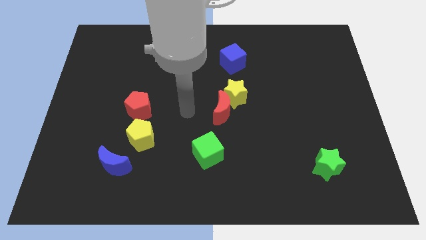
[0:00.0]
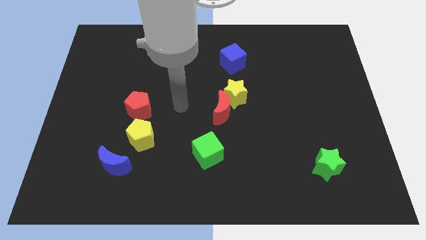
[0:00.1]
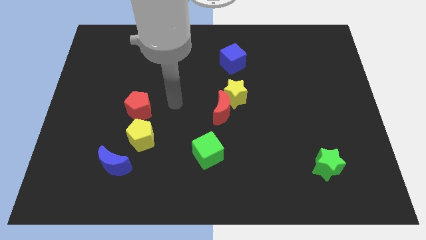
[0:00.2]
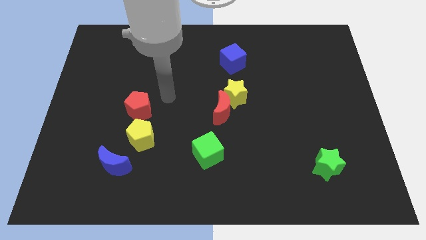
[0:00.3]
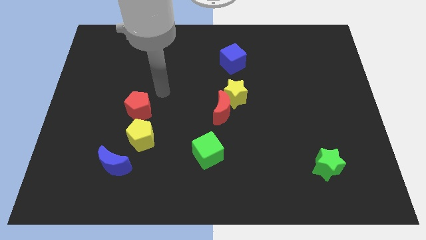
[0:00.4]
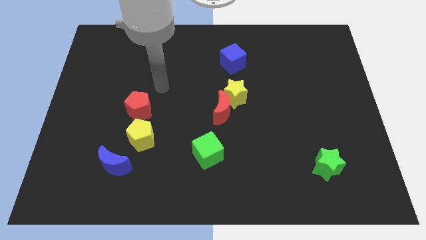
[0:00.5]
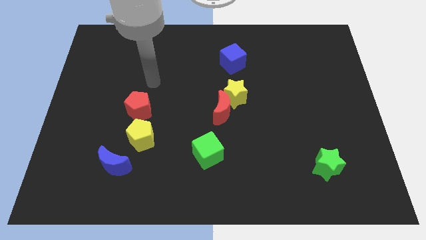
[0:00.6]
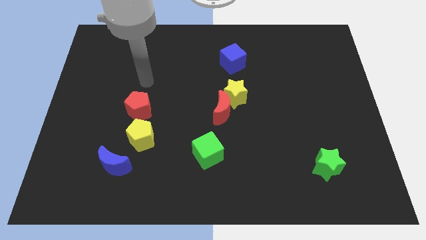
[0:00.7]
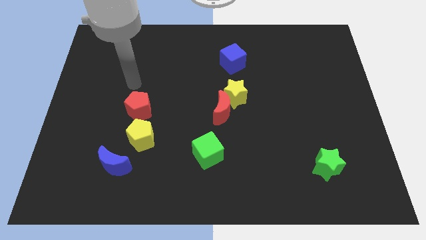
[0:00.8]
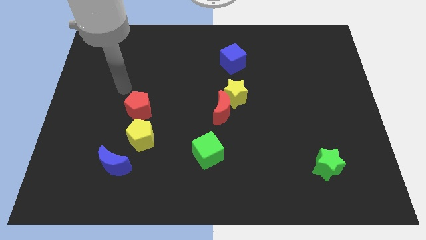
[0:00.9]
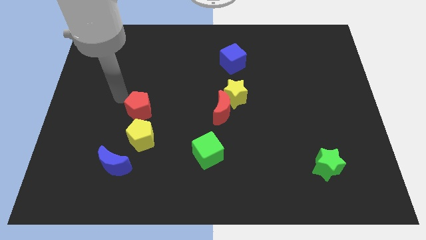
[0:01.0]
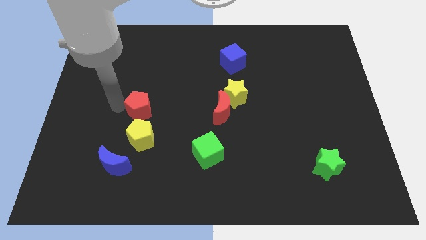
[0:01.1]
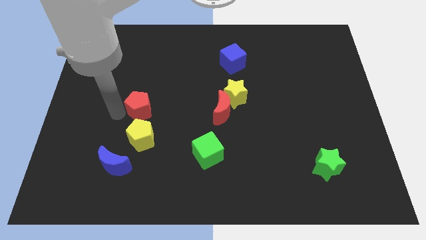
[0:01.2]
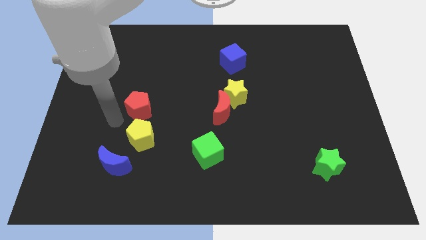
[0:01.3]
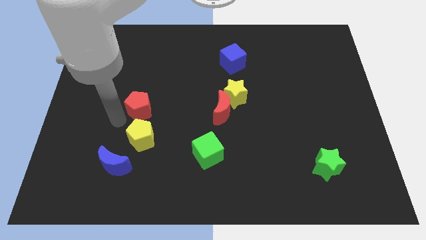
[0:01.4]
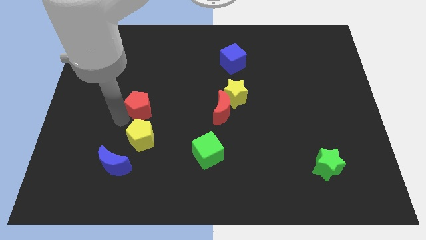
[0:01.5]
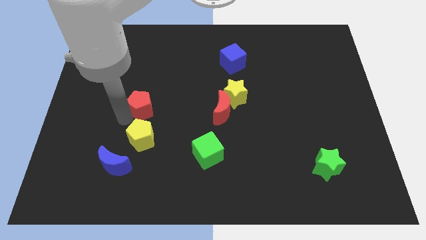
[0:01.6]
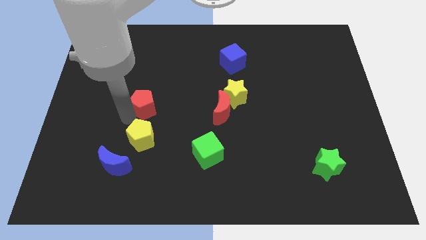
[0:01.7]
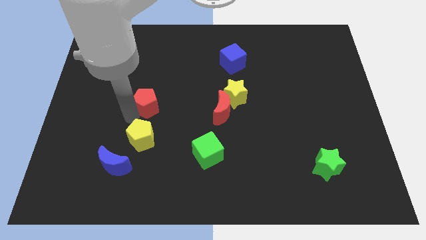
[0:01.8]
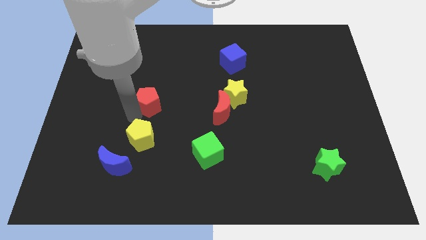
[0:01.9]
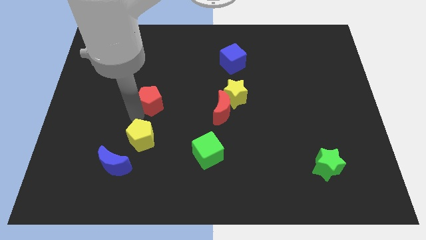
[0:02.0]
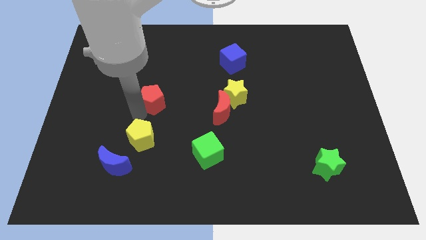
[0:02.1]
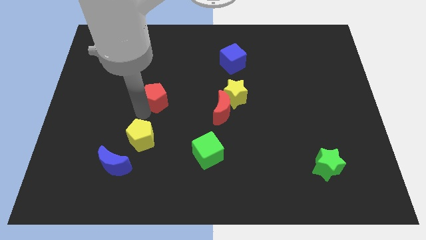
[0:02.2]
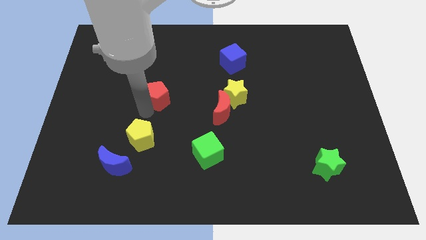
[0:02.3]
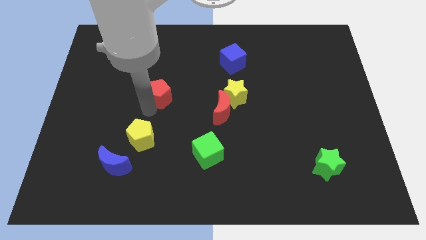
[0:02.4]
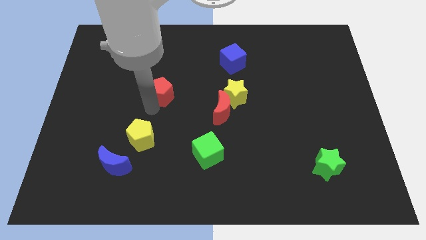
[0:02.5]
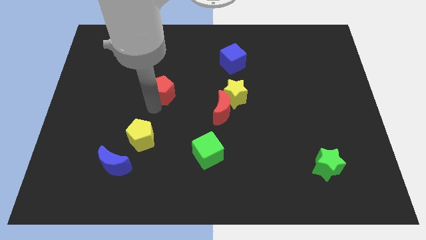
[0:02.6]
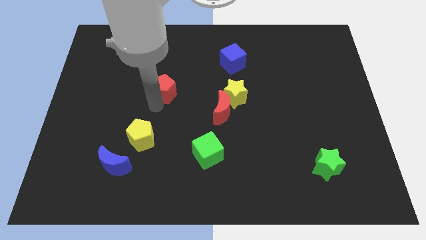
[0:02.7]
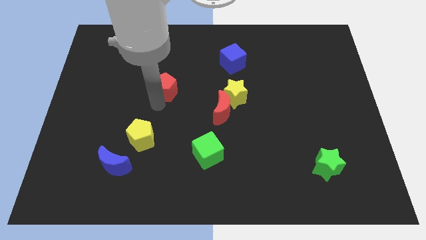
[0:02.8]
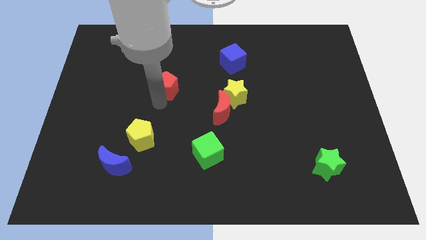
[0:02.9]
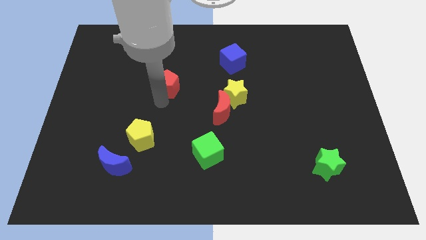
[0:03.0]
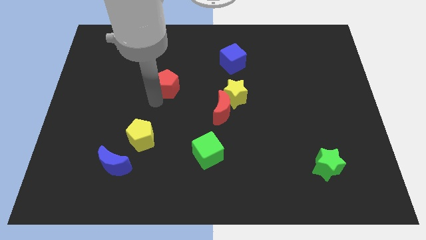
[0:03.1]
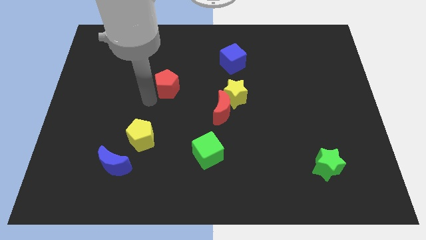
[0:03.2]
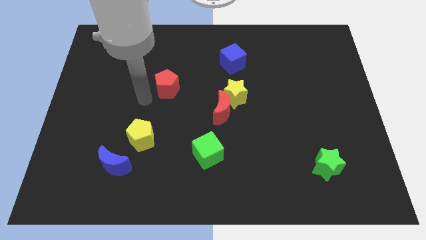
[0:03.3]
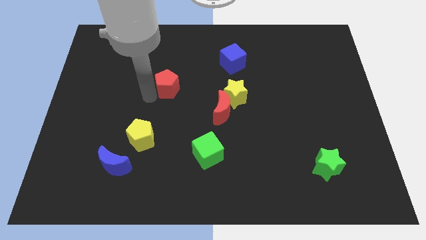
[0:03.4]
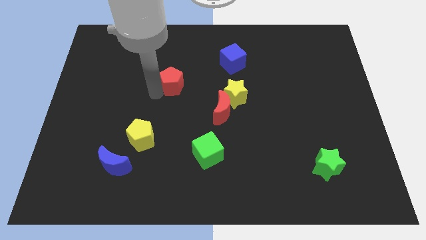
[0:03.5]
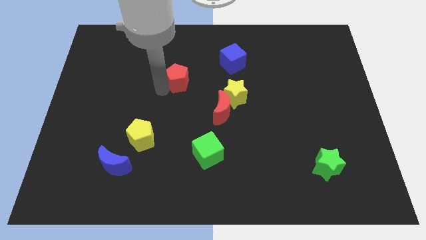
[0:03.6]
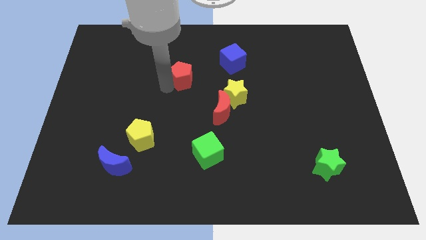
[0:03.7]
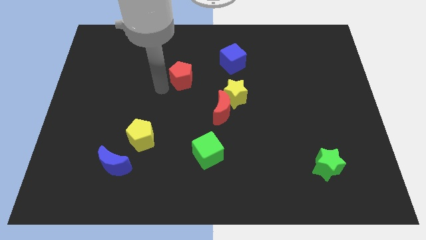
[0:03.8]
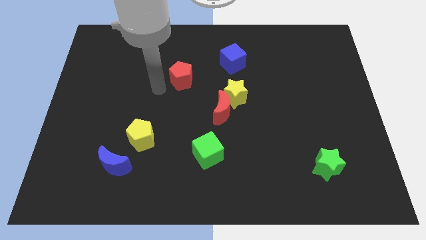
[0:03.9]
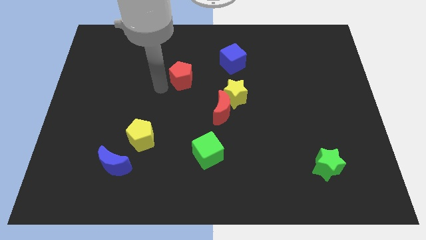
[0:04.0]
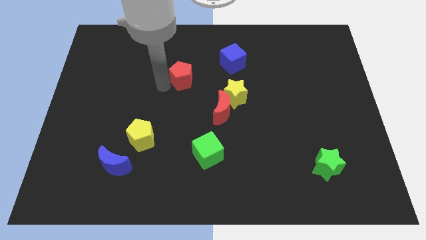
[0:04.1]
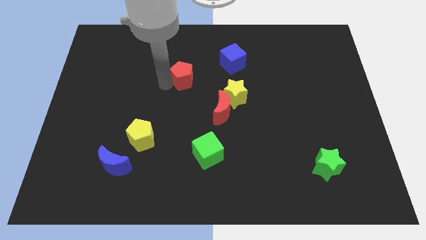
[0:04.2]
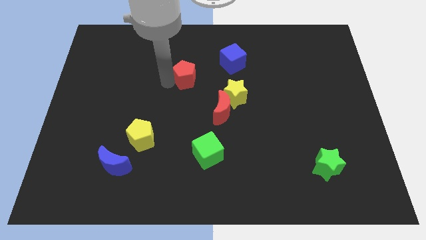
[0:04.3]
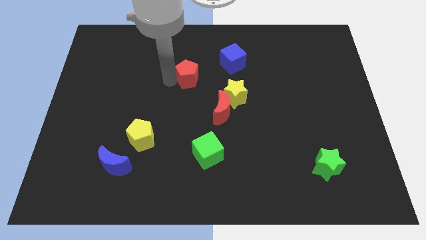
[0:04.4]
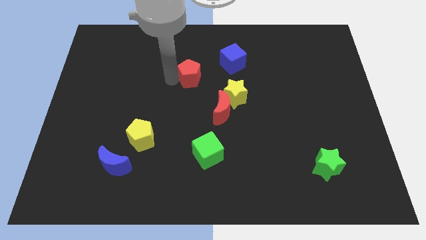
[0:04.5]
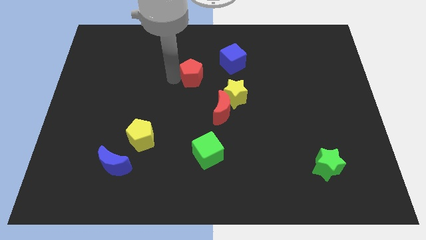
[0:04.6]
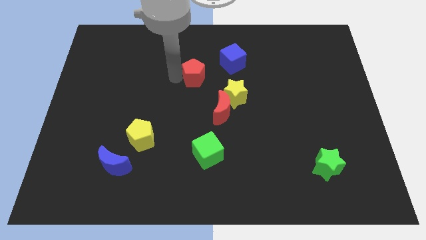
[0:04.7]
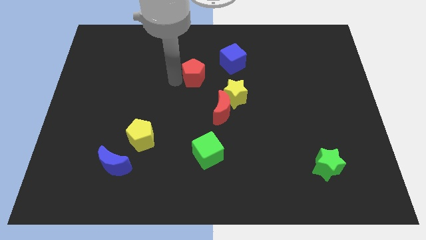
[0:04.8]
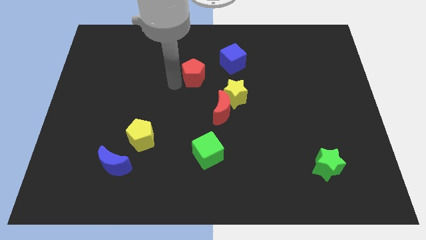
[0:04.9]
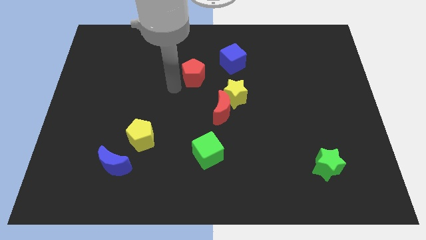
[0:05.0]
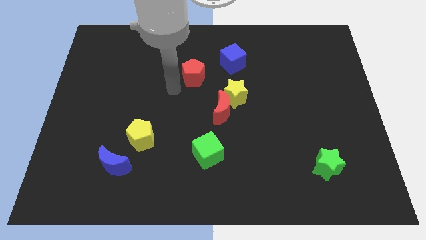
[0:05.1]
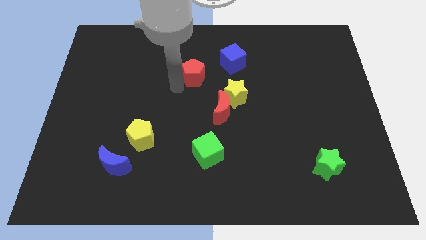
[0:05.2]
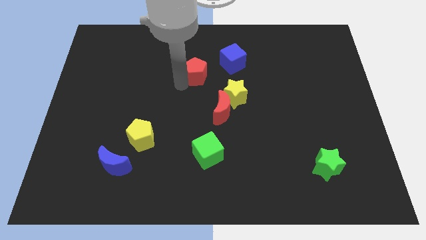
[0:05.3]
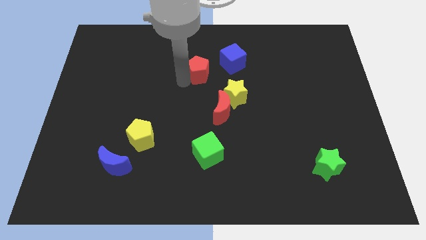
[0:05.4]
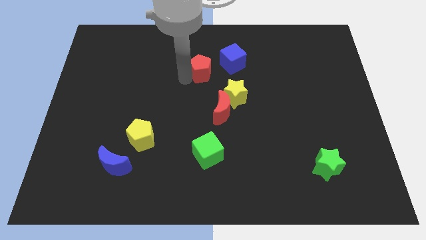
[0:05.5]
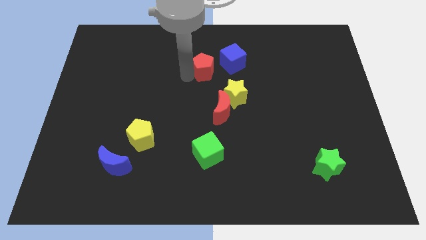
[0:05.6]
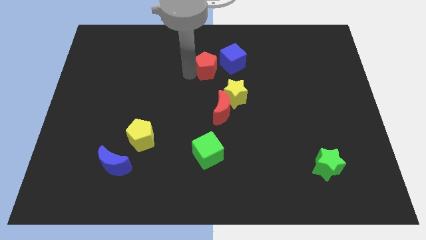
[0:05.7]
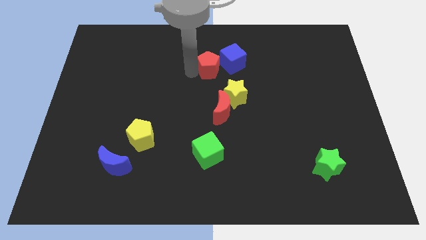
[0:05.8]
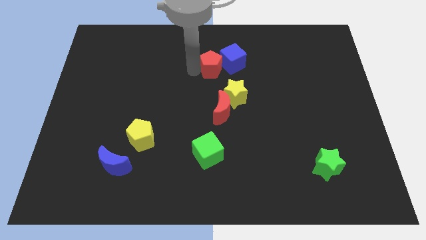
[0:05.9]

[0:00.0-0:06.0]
move the red pentagon close to the blue cube

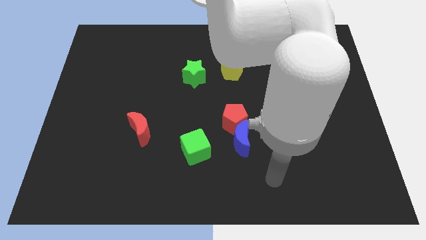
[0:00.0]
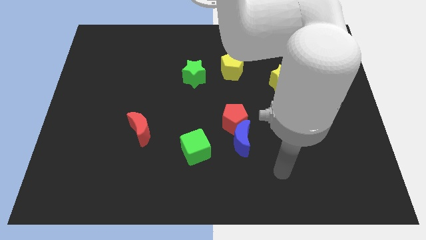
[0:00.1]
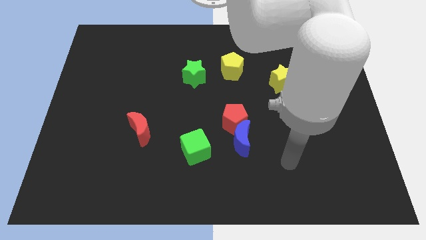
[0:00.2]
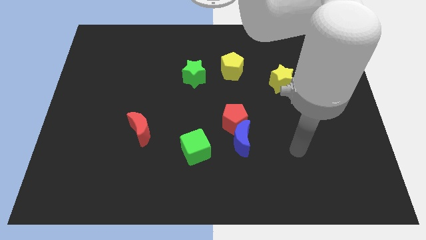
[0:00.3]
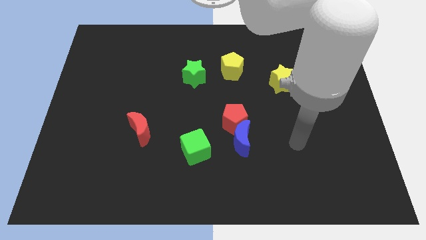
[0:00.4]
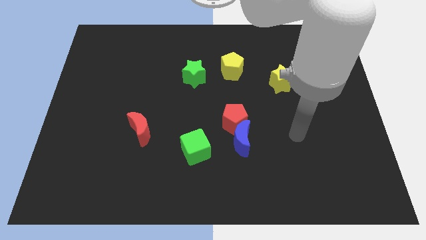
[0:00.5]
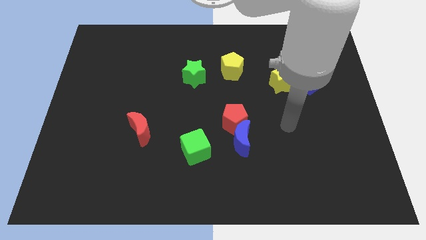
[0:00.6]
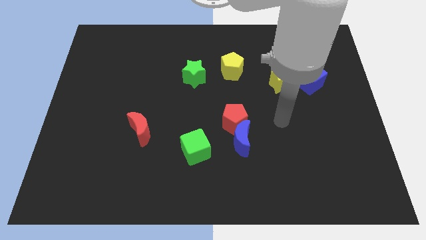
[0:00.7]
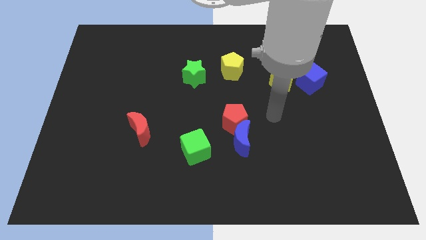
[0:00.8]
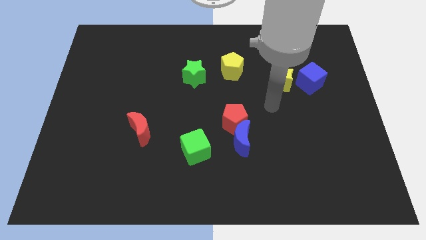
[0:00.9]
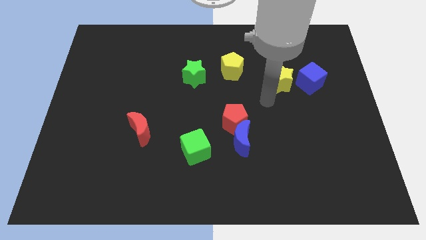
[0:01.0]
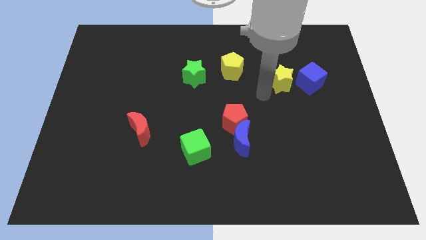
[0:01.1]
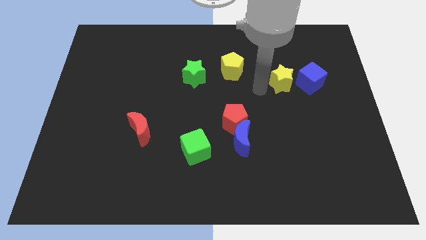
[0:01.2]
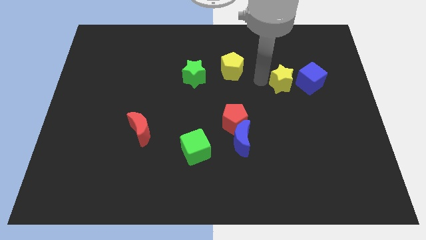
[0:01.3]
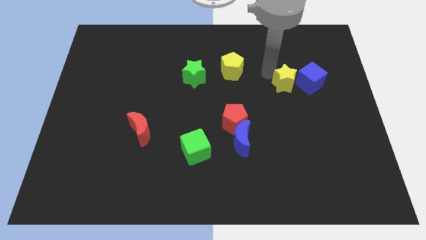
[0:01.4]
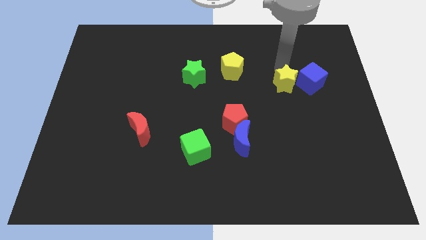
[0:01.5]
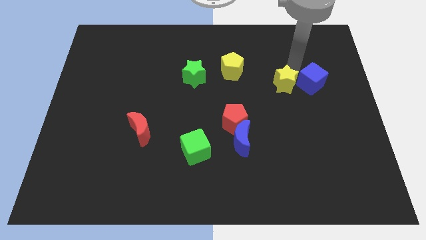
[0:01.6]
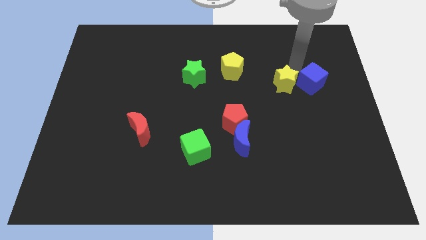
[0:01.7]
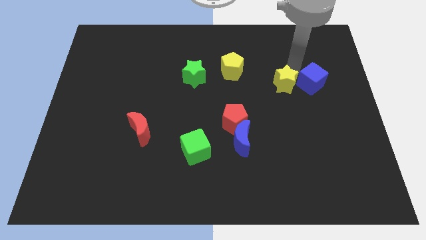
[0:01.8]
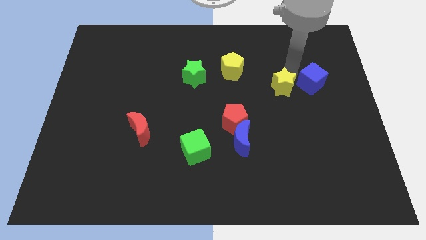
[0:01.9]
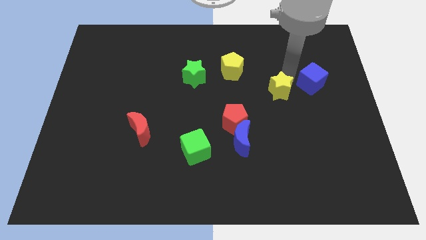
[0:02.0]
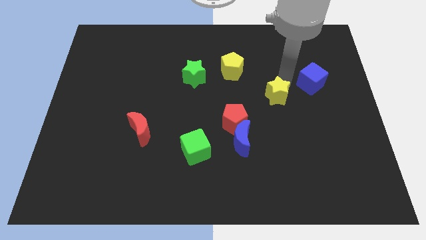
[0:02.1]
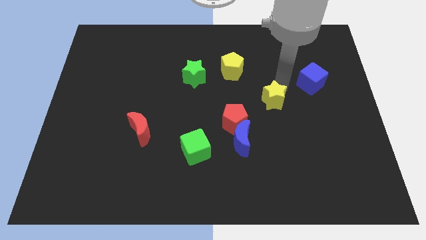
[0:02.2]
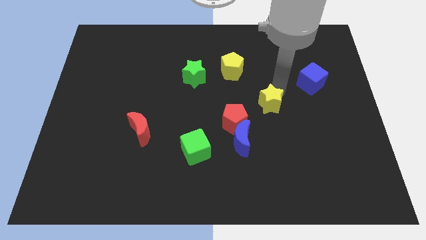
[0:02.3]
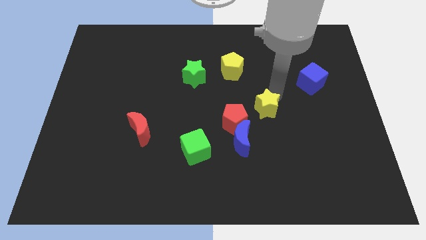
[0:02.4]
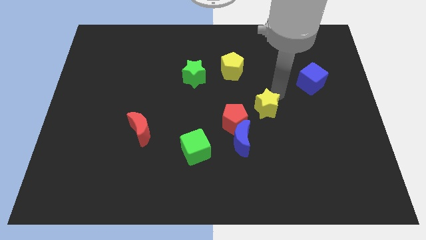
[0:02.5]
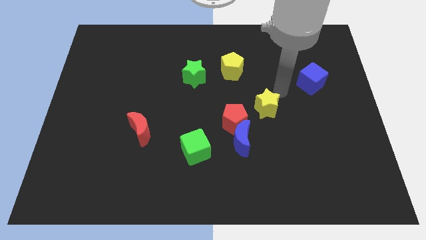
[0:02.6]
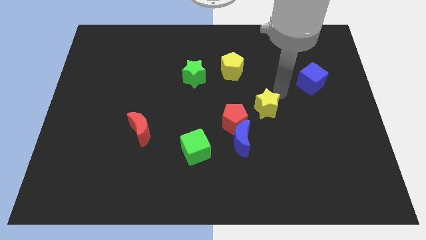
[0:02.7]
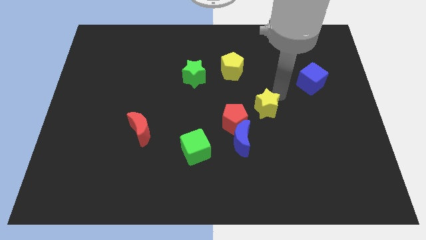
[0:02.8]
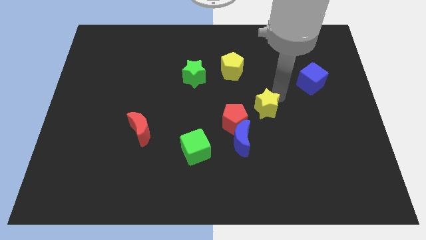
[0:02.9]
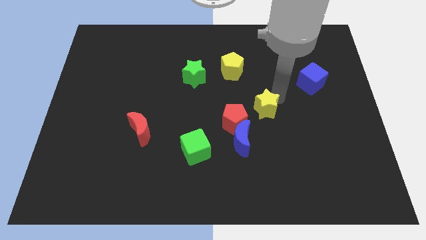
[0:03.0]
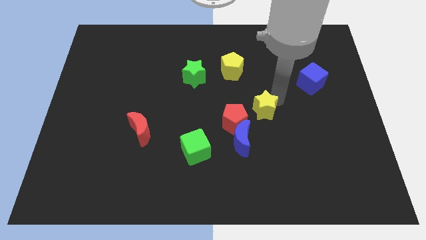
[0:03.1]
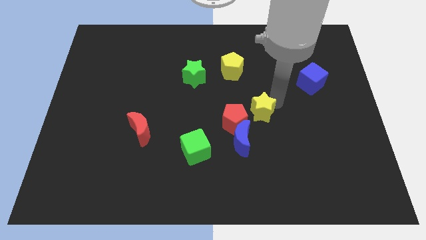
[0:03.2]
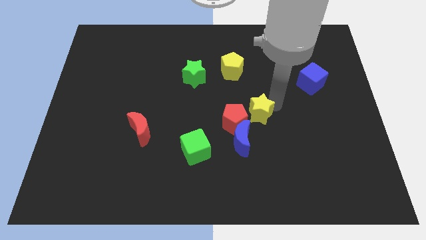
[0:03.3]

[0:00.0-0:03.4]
put the yellow star towards the red pentagon
